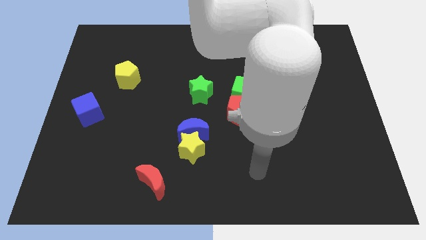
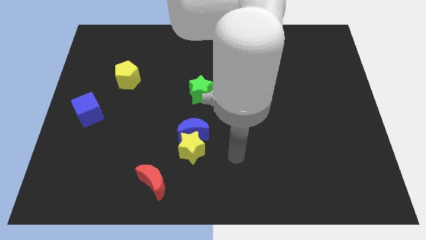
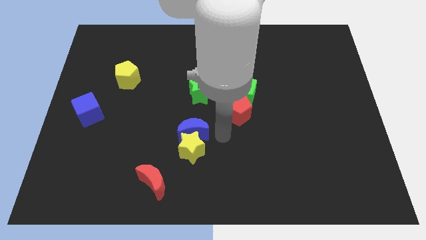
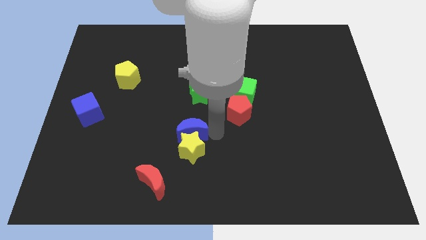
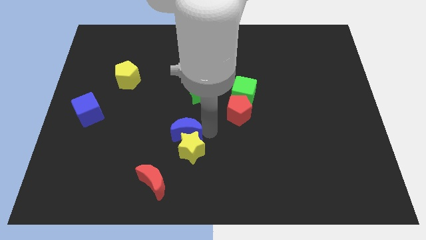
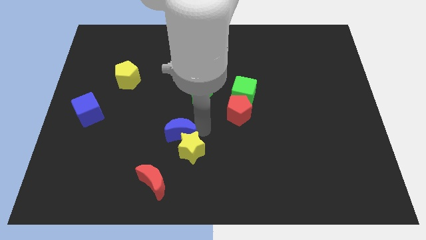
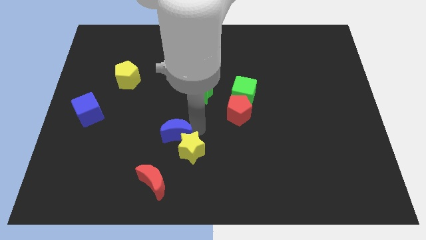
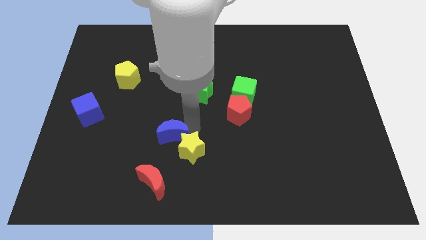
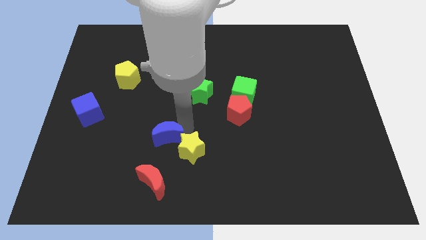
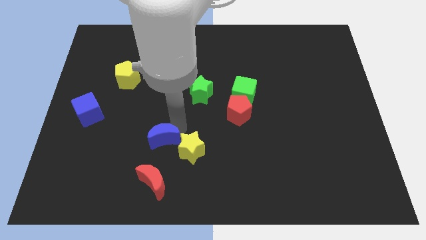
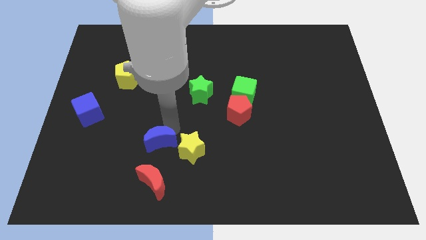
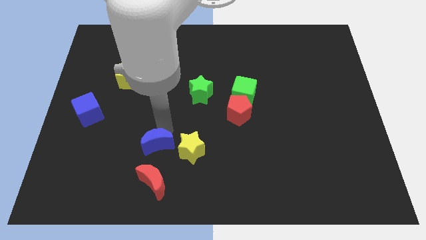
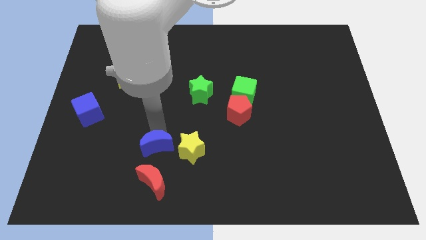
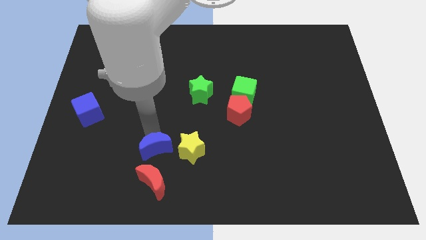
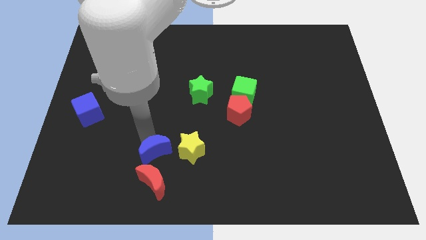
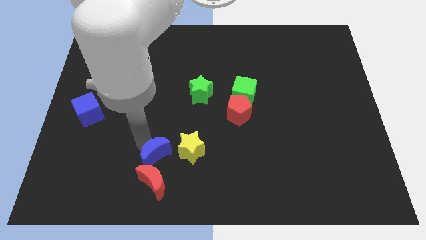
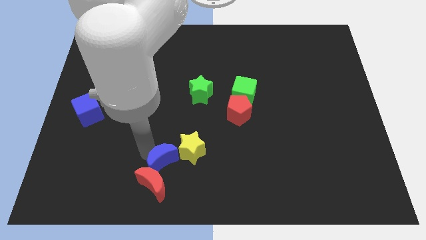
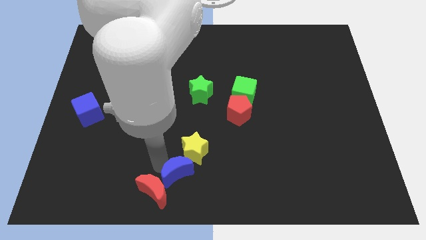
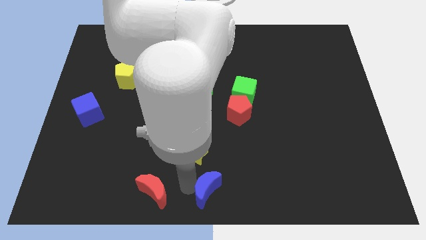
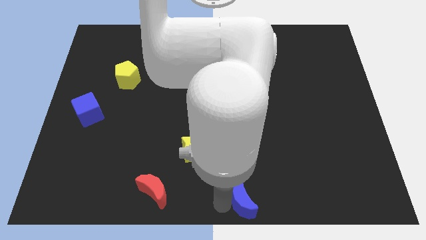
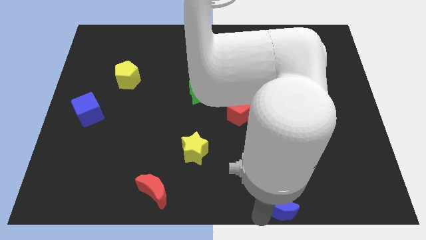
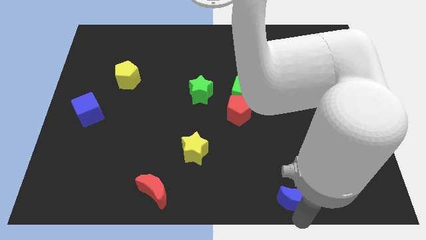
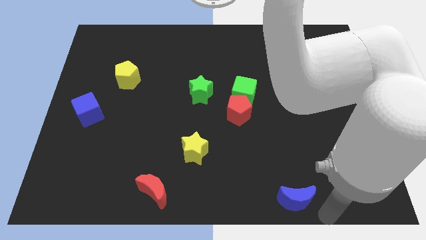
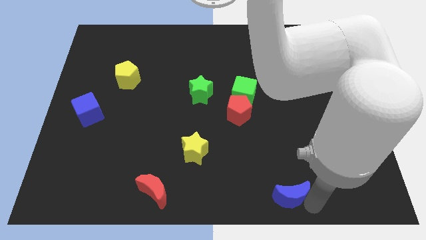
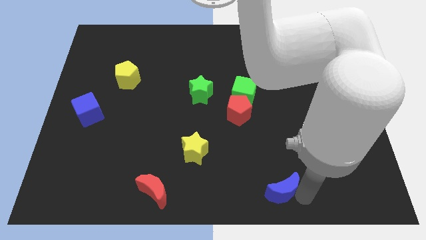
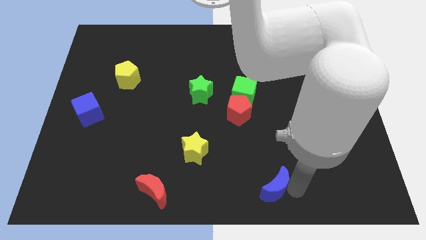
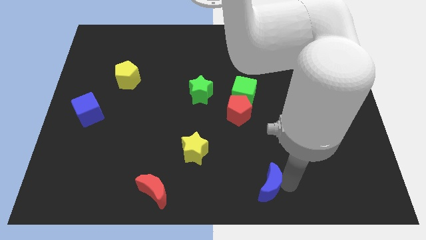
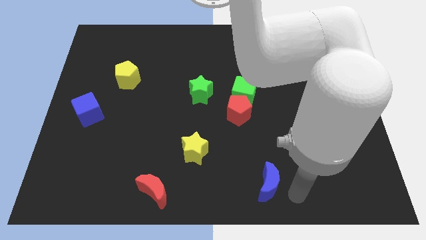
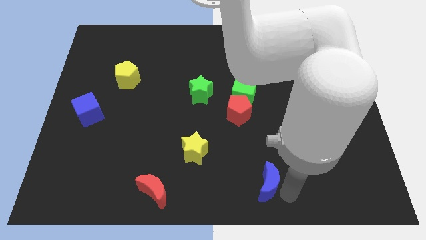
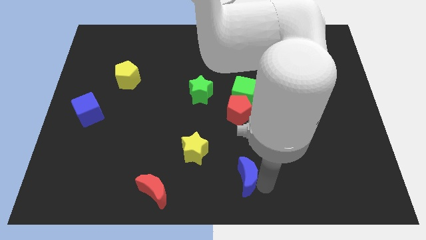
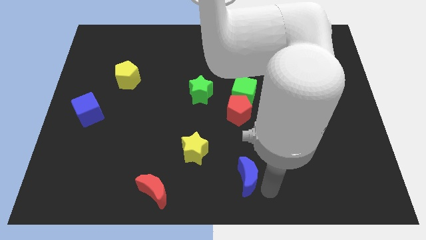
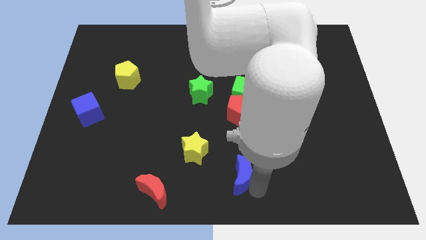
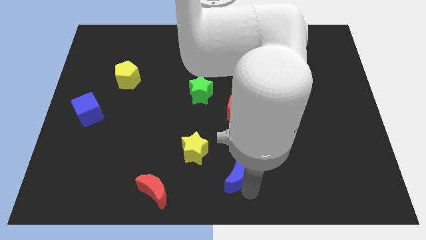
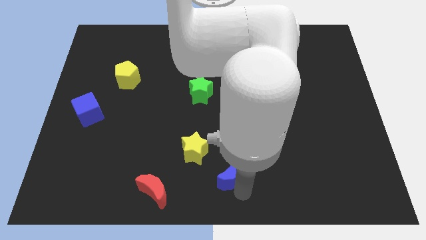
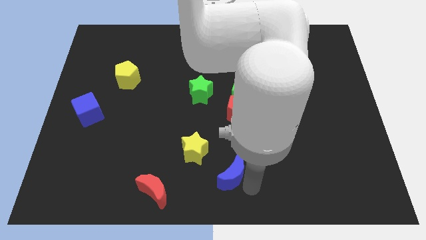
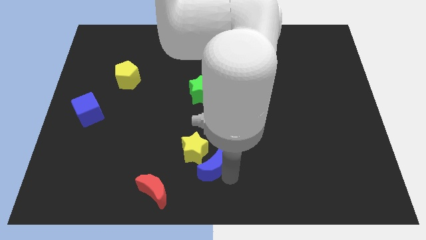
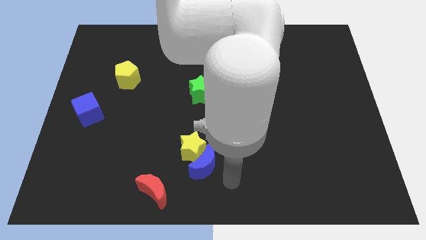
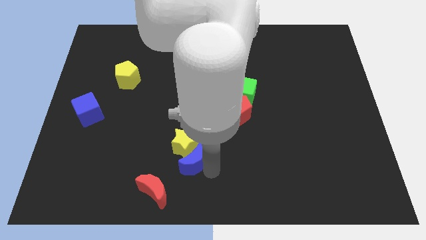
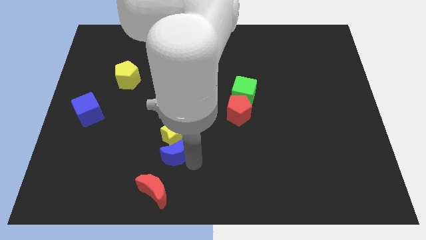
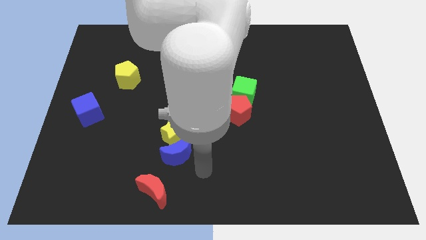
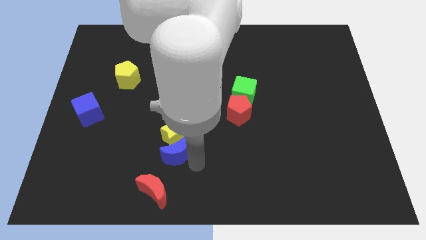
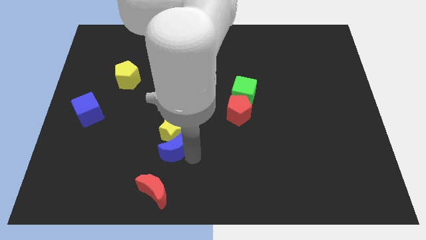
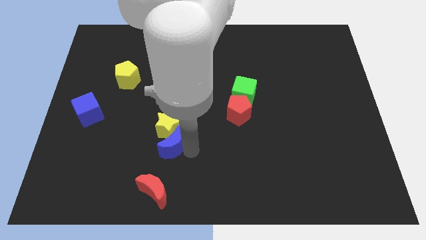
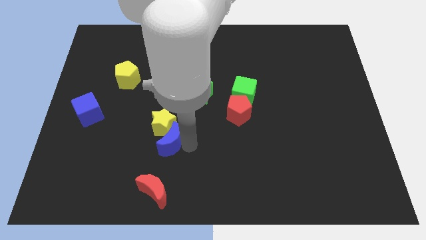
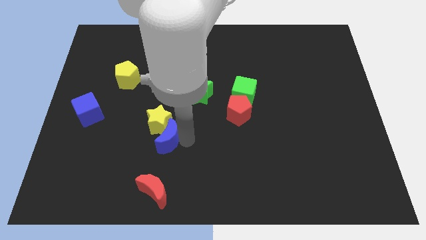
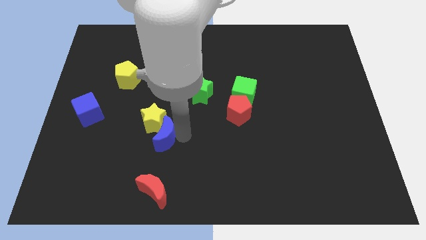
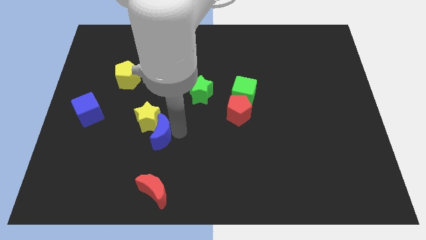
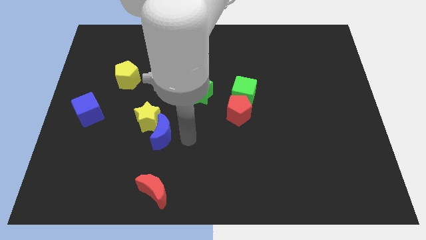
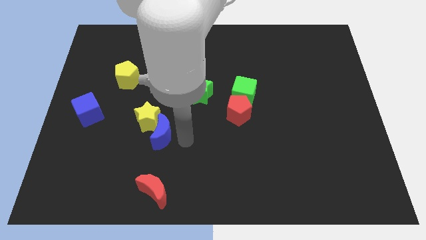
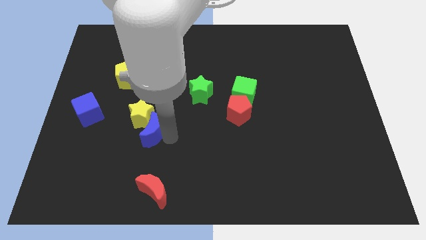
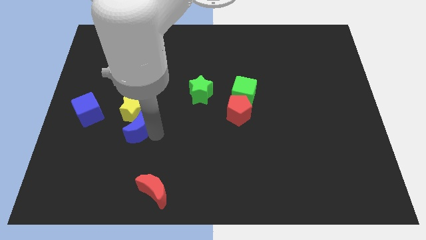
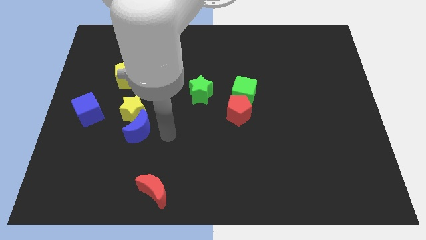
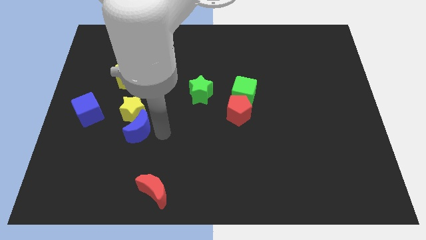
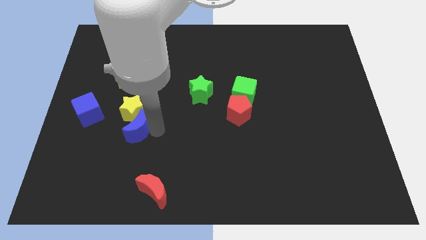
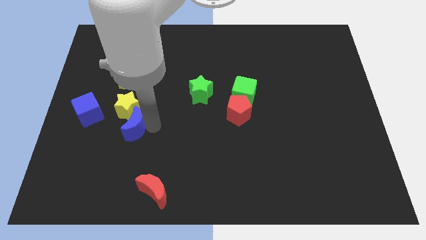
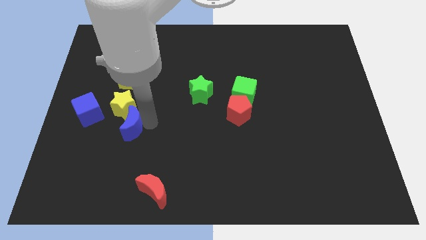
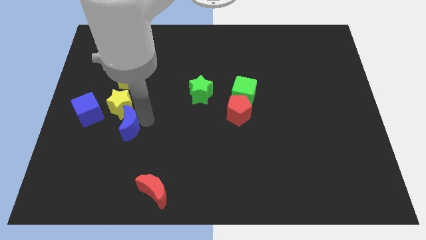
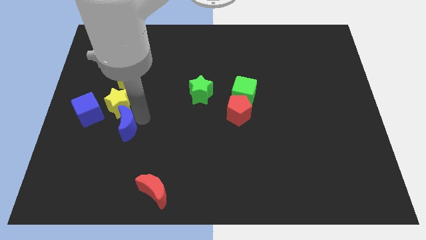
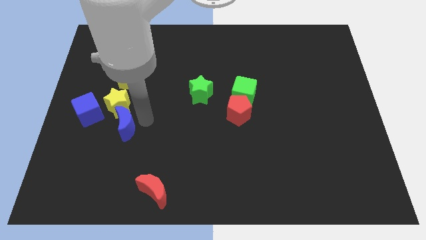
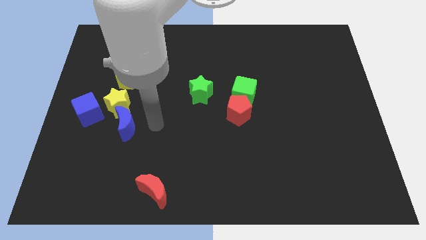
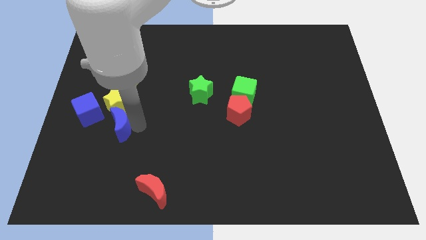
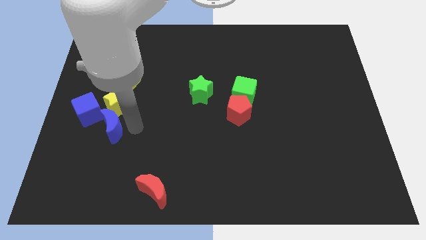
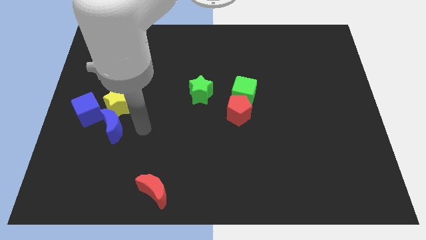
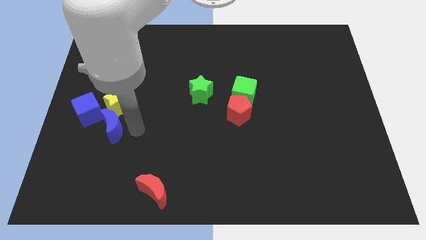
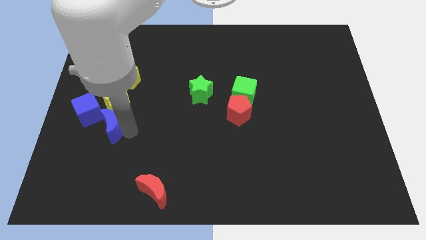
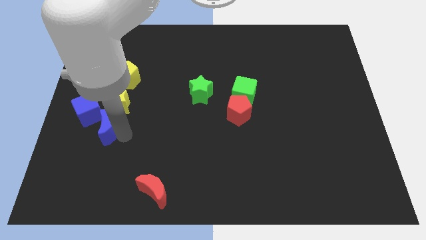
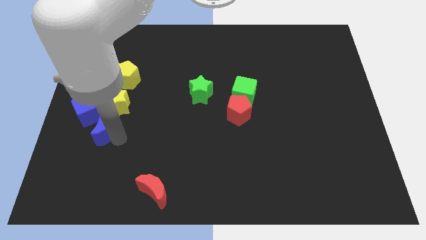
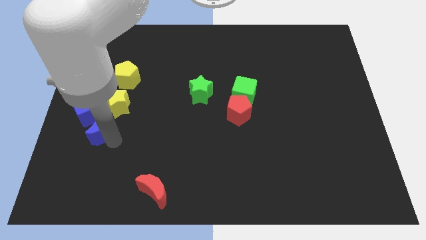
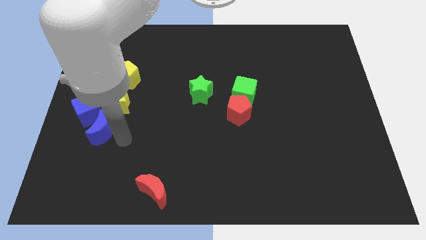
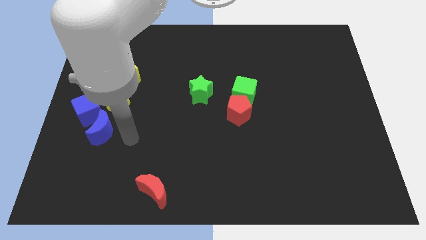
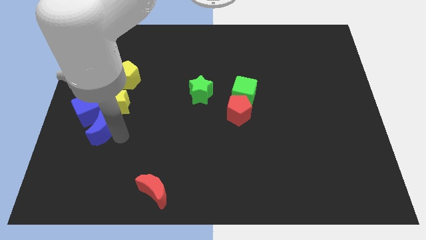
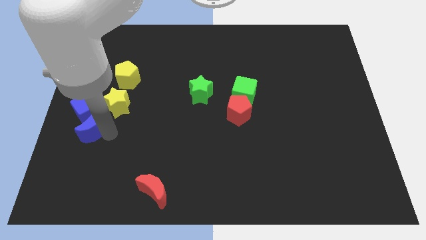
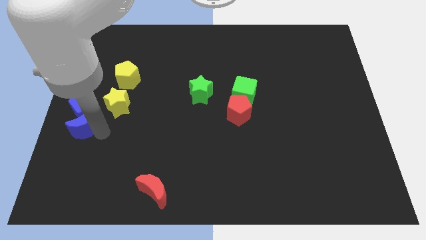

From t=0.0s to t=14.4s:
slide the blue moon to the left side of the board
